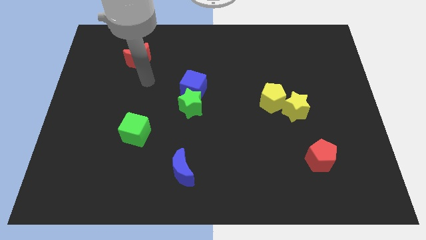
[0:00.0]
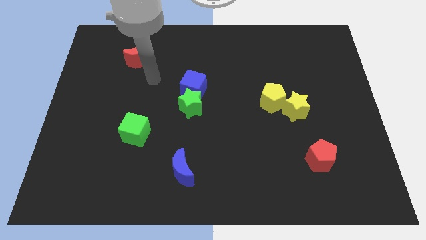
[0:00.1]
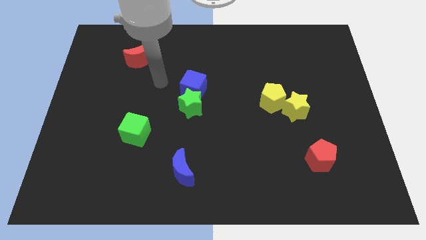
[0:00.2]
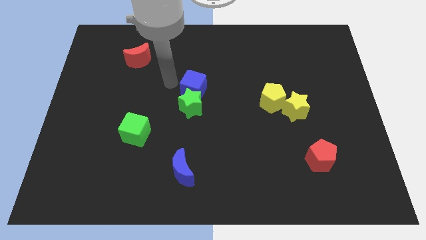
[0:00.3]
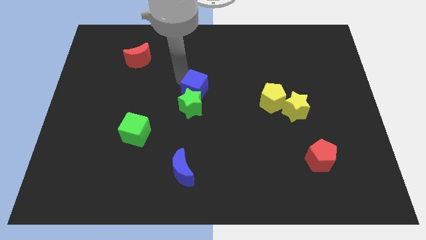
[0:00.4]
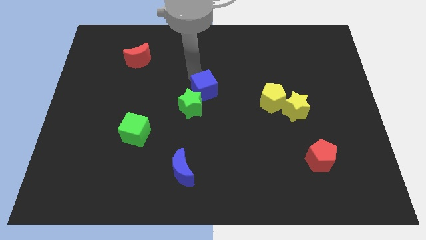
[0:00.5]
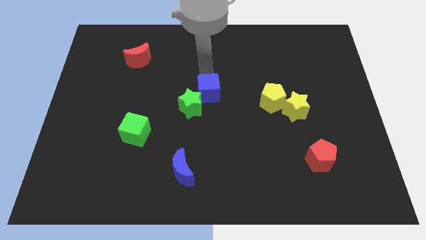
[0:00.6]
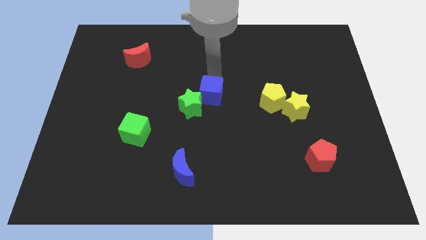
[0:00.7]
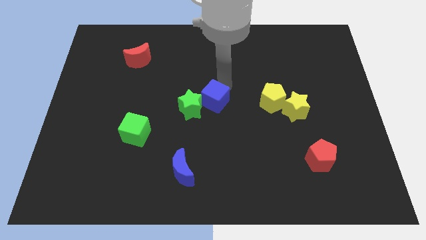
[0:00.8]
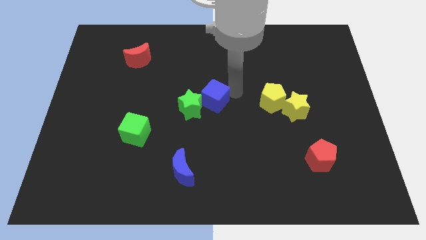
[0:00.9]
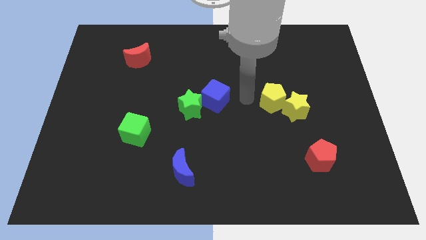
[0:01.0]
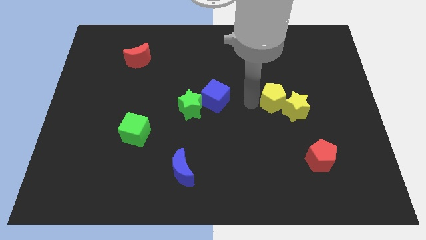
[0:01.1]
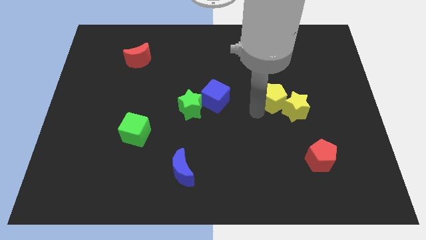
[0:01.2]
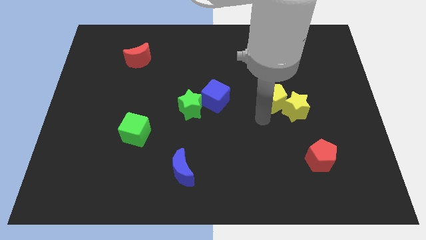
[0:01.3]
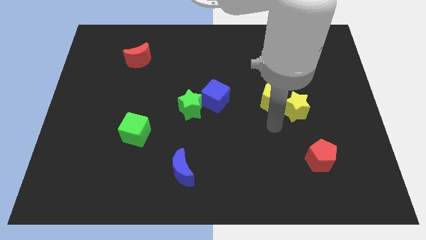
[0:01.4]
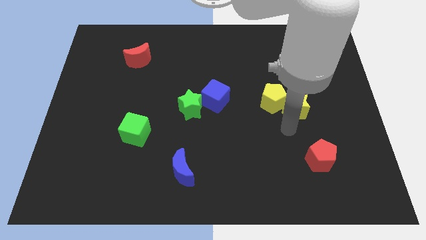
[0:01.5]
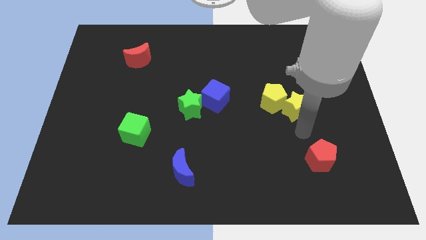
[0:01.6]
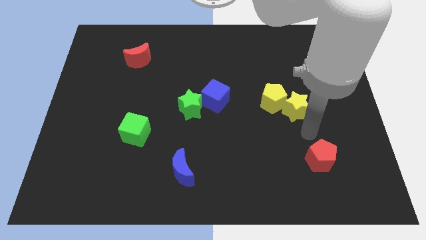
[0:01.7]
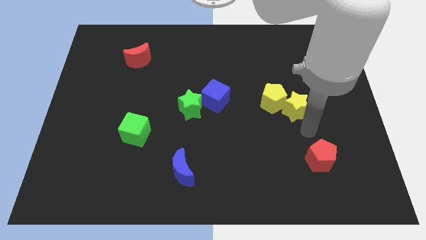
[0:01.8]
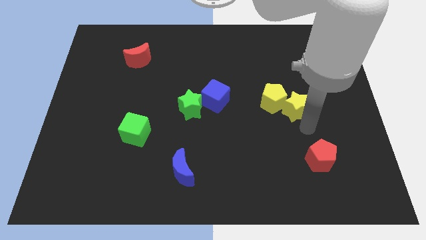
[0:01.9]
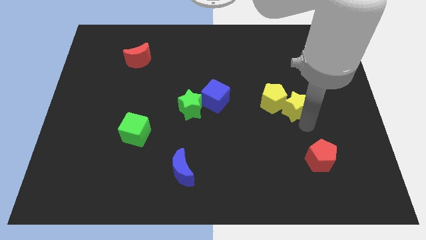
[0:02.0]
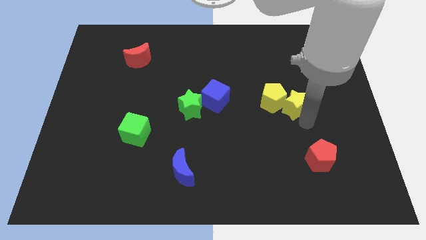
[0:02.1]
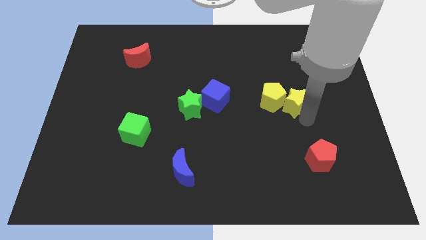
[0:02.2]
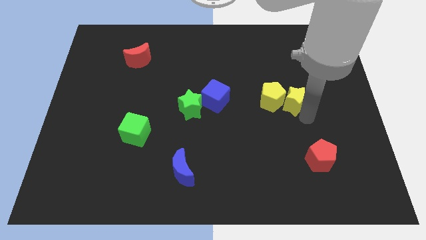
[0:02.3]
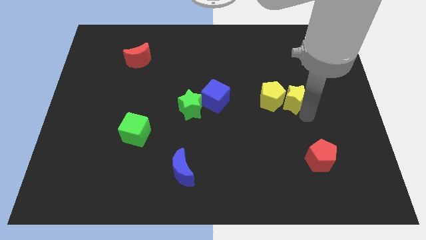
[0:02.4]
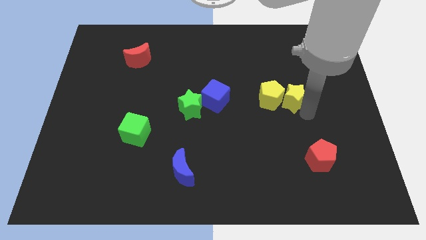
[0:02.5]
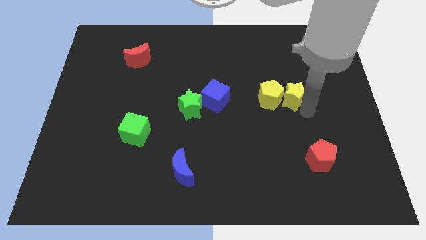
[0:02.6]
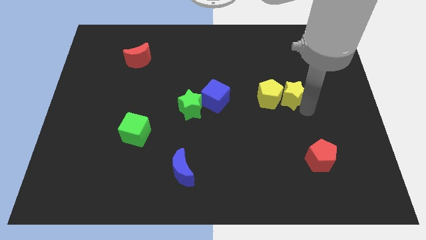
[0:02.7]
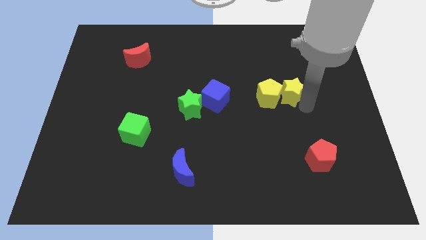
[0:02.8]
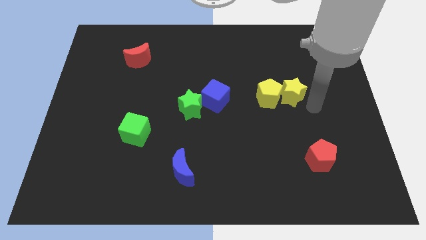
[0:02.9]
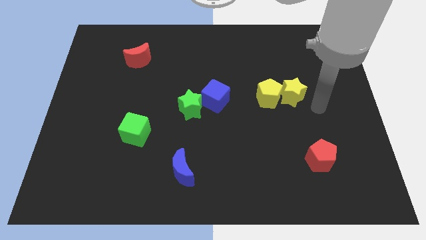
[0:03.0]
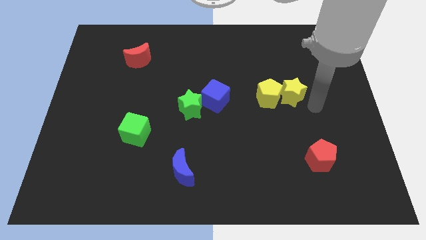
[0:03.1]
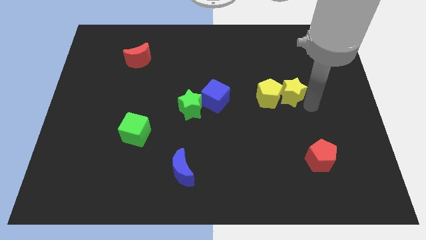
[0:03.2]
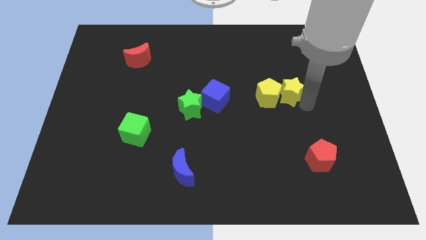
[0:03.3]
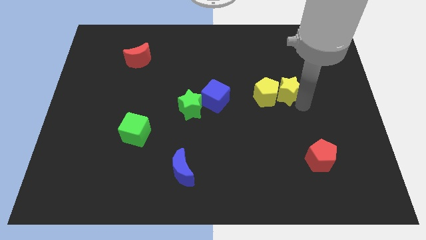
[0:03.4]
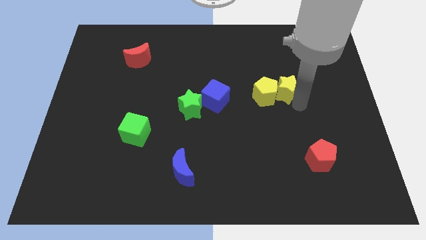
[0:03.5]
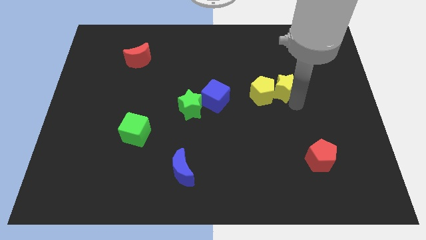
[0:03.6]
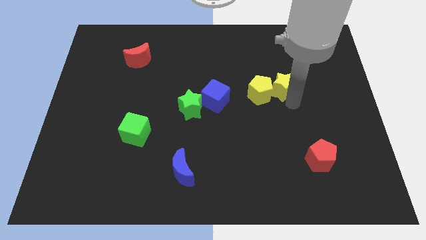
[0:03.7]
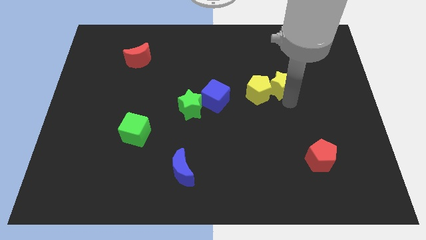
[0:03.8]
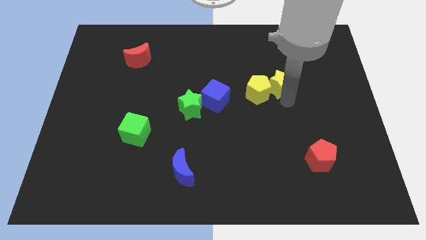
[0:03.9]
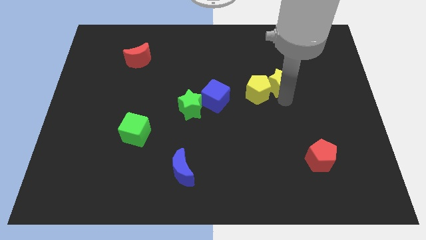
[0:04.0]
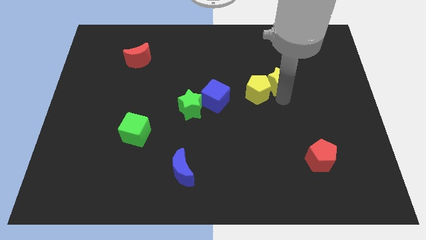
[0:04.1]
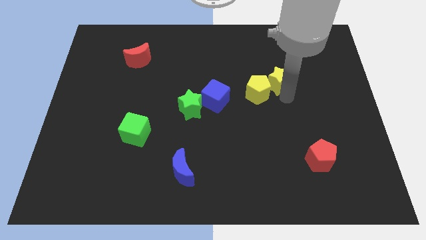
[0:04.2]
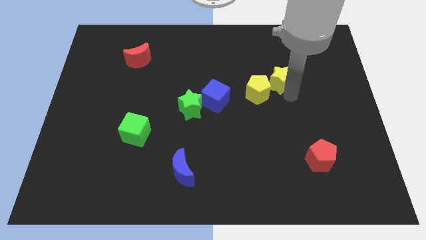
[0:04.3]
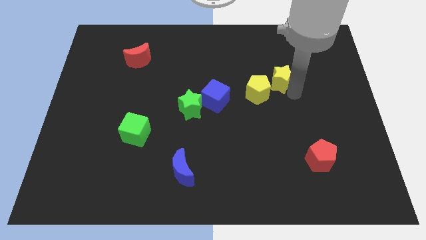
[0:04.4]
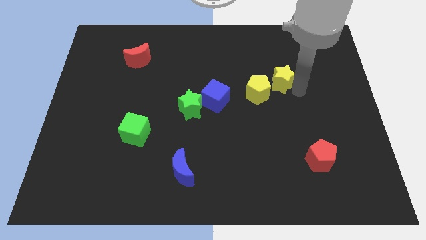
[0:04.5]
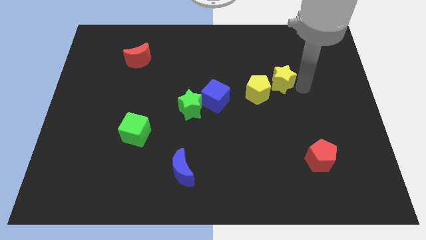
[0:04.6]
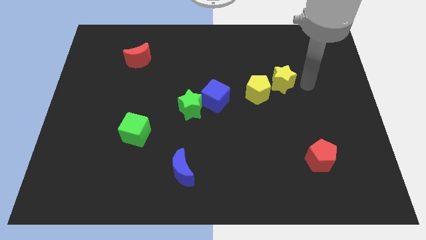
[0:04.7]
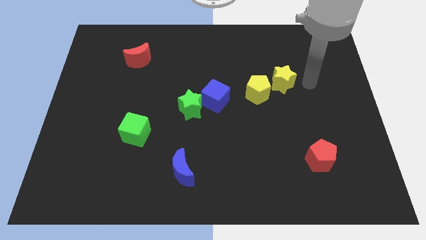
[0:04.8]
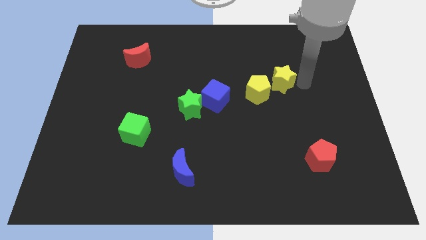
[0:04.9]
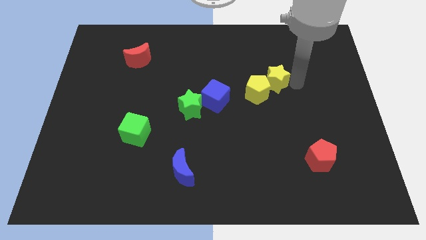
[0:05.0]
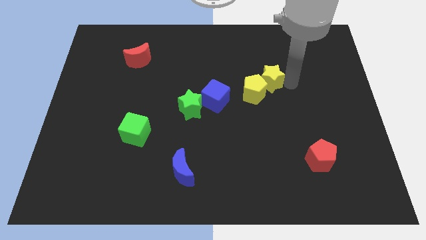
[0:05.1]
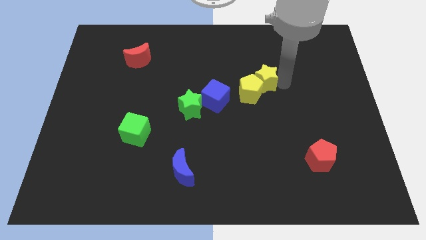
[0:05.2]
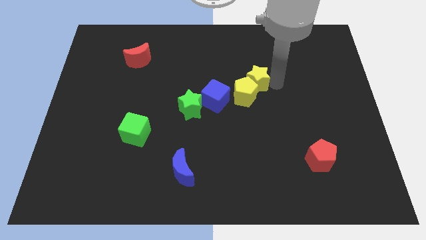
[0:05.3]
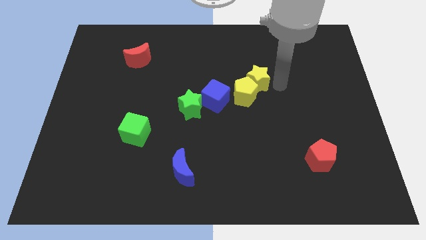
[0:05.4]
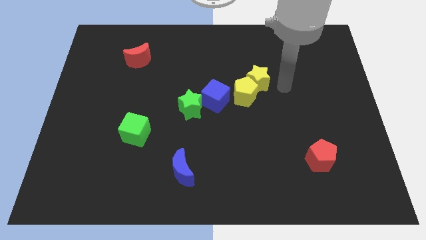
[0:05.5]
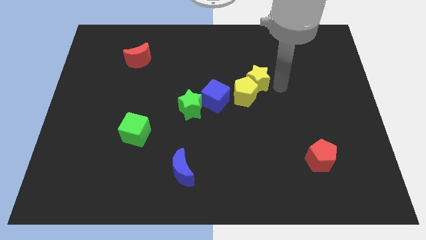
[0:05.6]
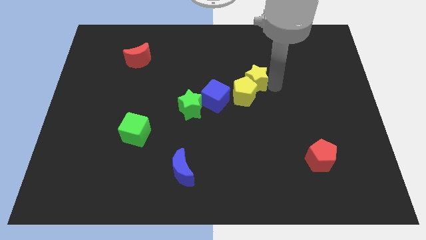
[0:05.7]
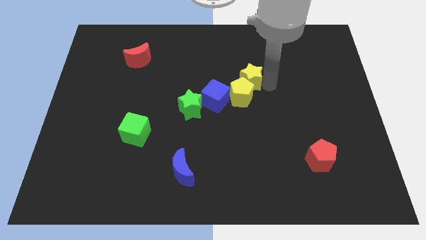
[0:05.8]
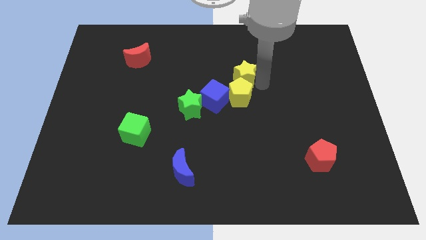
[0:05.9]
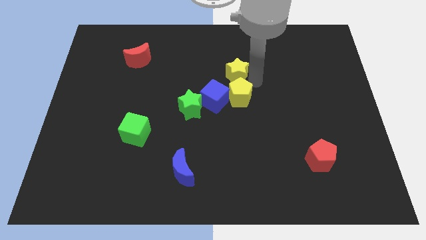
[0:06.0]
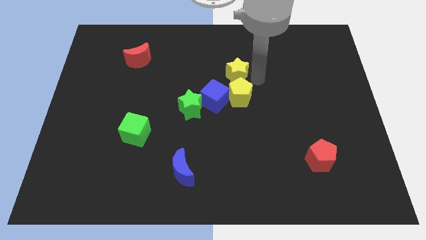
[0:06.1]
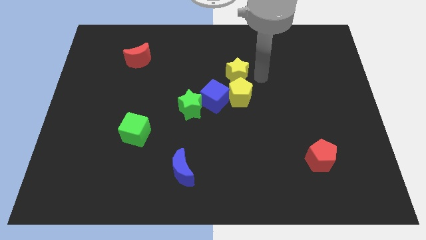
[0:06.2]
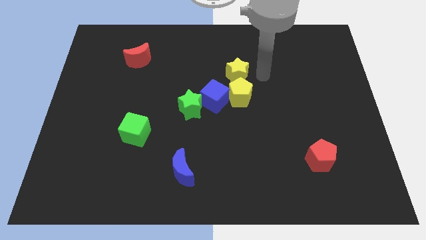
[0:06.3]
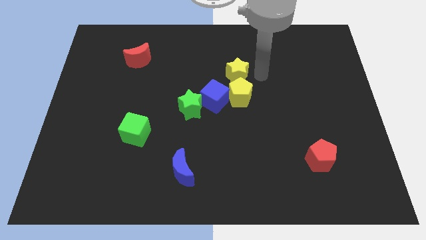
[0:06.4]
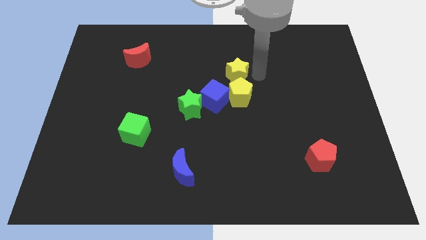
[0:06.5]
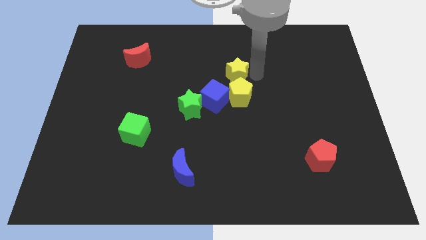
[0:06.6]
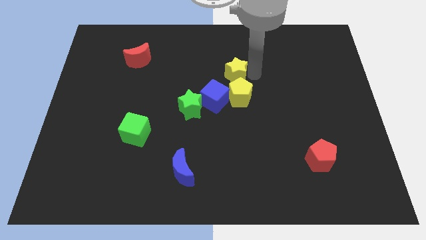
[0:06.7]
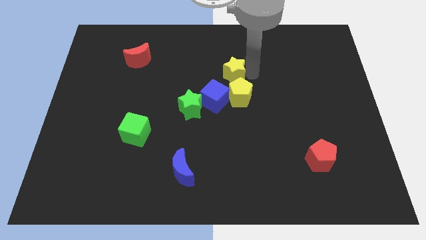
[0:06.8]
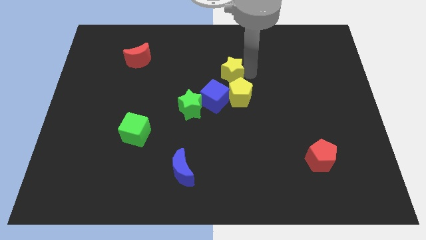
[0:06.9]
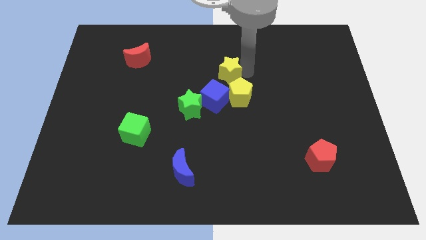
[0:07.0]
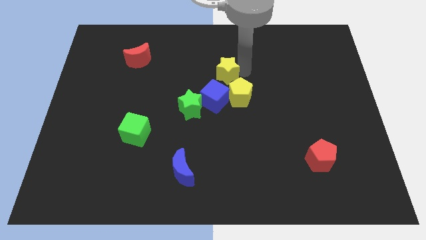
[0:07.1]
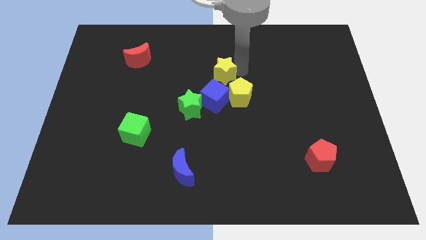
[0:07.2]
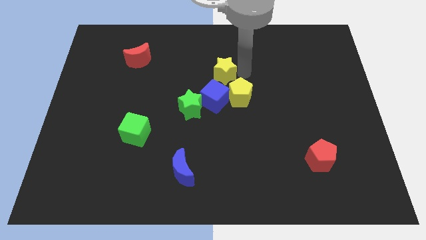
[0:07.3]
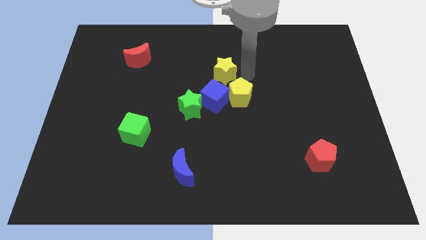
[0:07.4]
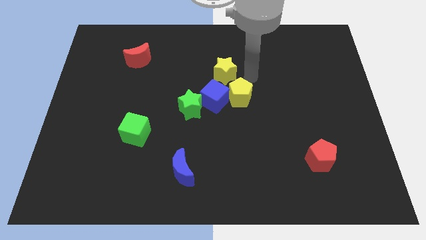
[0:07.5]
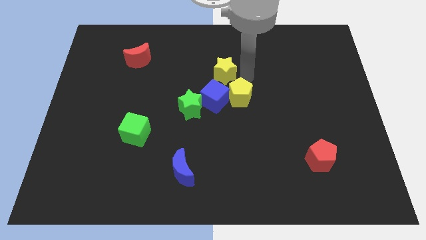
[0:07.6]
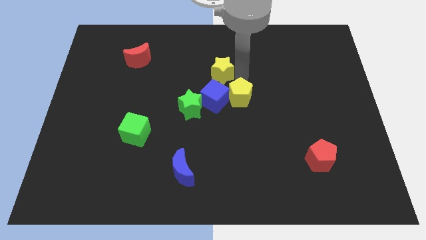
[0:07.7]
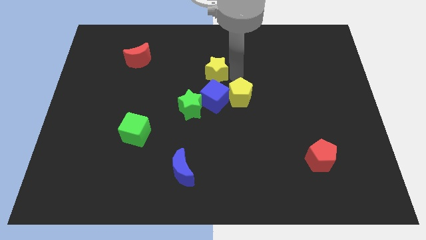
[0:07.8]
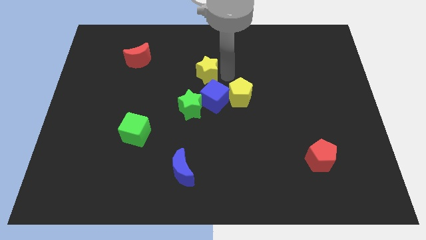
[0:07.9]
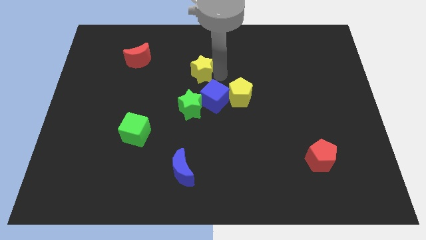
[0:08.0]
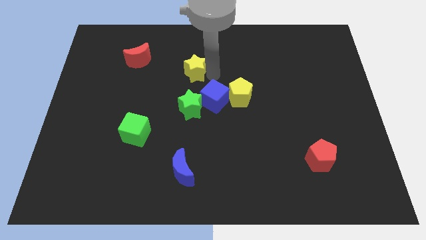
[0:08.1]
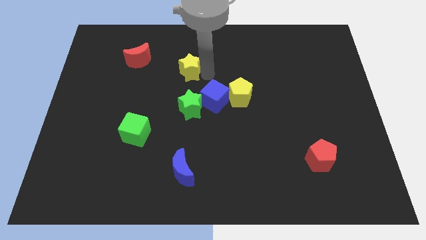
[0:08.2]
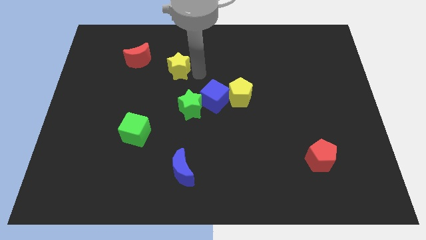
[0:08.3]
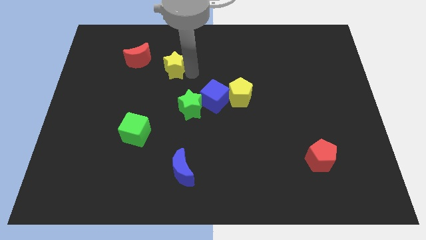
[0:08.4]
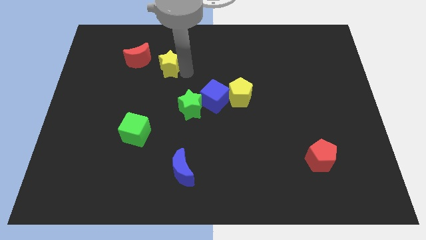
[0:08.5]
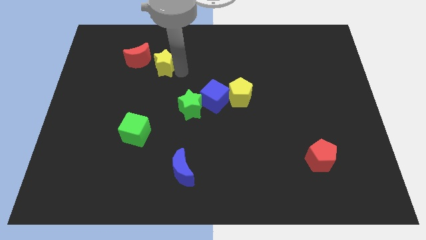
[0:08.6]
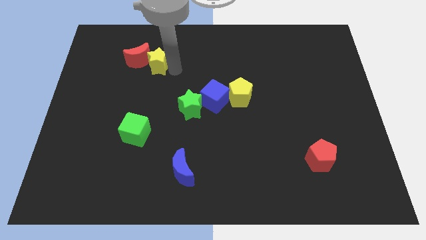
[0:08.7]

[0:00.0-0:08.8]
slide the yellow star close to the red moon
